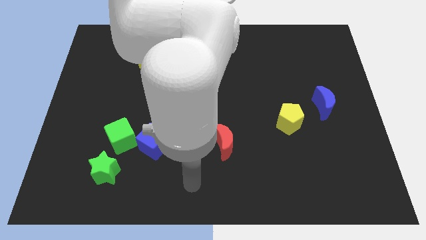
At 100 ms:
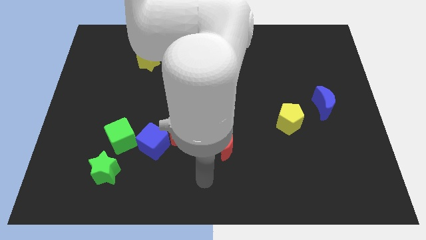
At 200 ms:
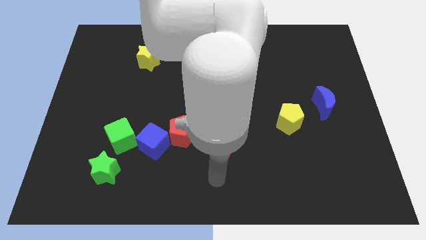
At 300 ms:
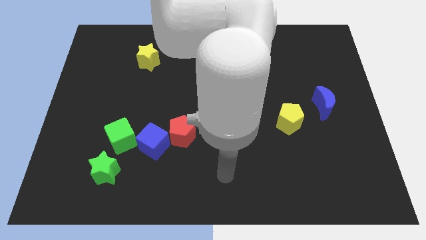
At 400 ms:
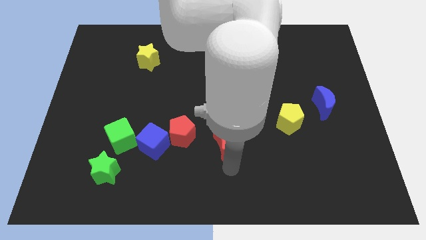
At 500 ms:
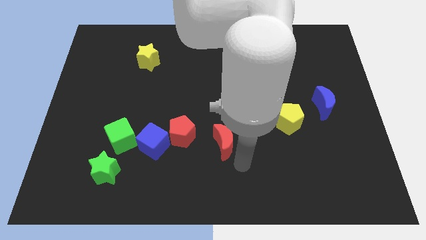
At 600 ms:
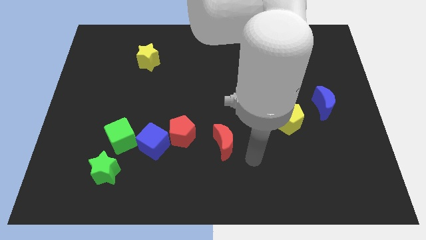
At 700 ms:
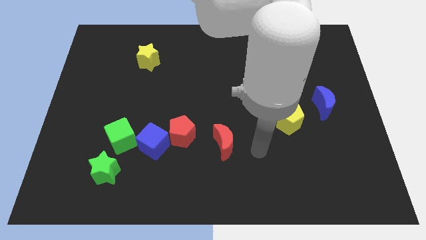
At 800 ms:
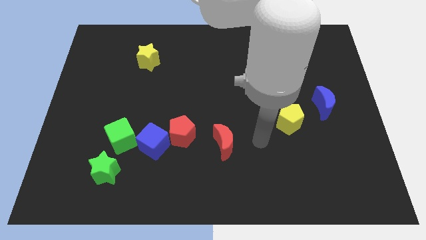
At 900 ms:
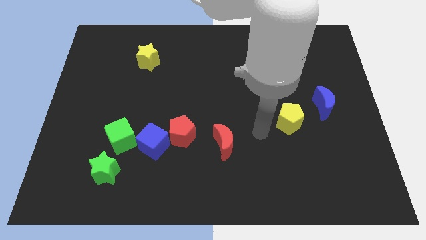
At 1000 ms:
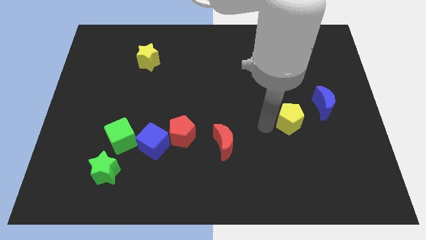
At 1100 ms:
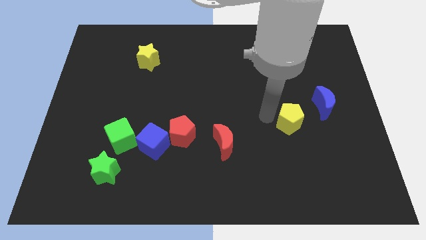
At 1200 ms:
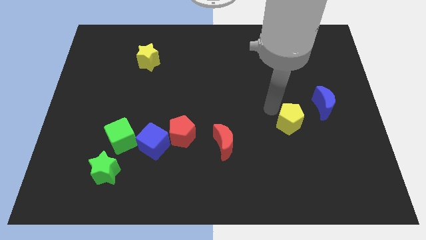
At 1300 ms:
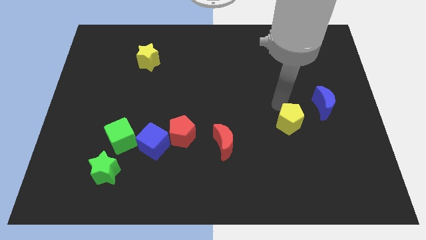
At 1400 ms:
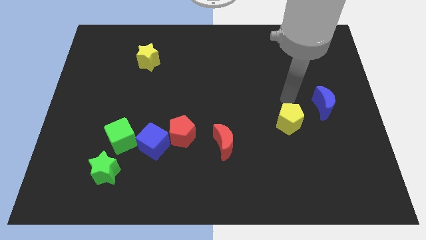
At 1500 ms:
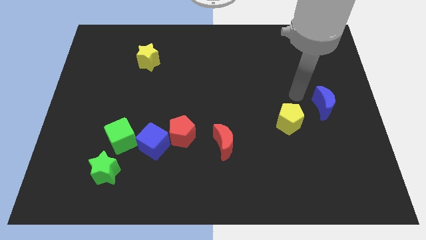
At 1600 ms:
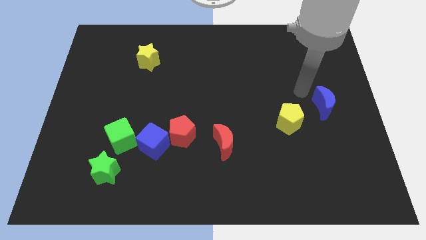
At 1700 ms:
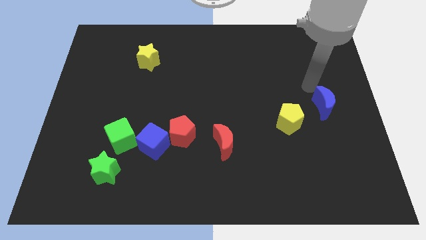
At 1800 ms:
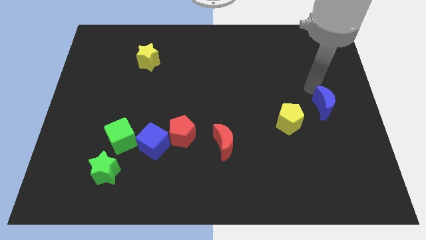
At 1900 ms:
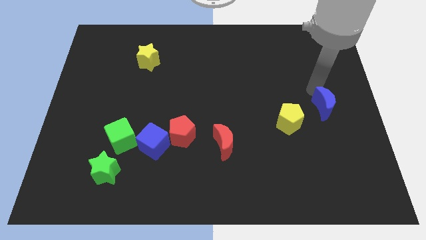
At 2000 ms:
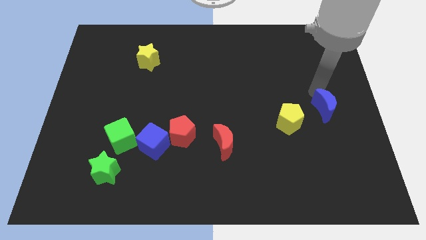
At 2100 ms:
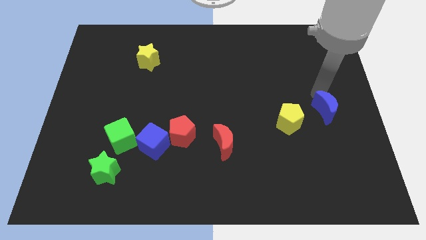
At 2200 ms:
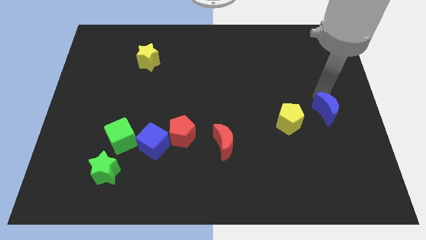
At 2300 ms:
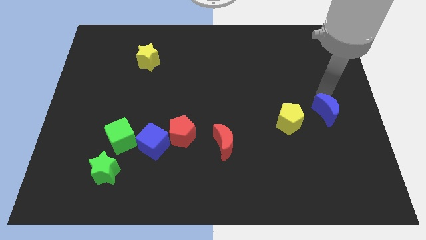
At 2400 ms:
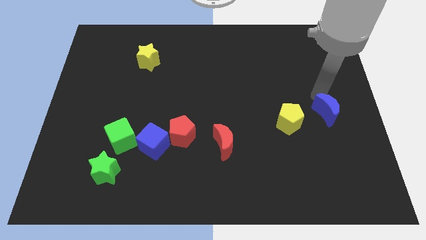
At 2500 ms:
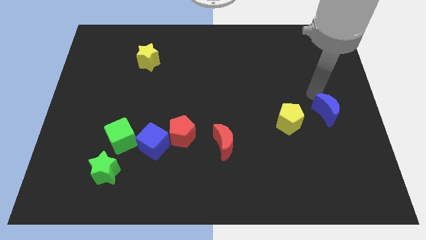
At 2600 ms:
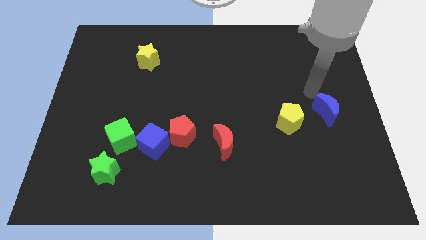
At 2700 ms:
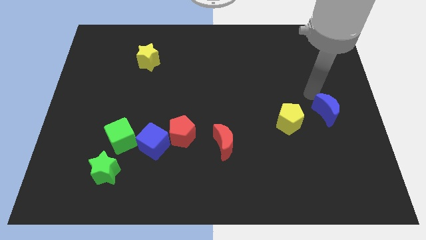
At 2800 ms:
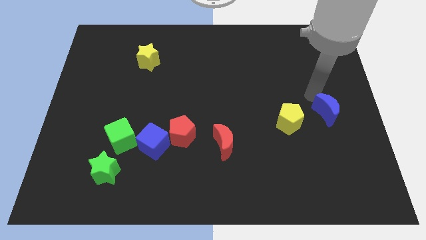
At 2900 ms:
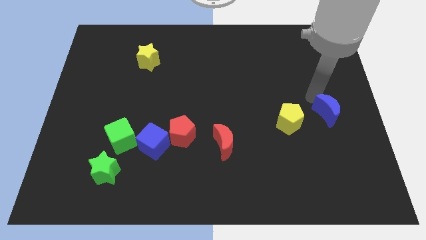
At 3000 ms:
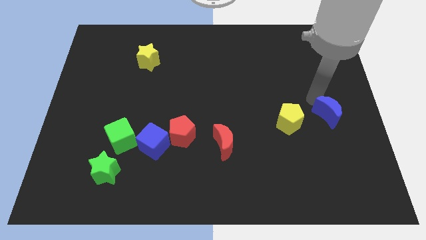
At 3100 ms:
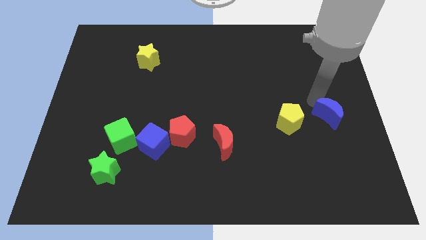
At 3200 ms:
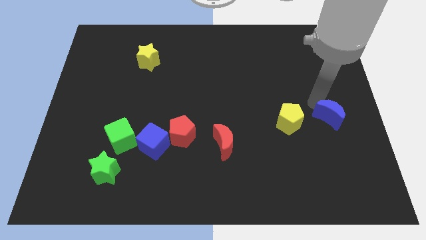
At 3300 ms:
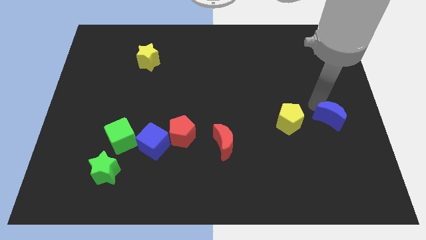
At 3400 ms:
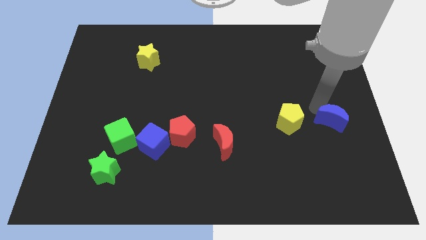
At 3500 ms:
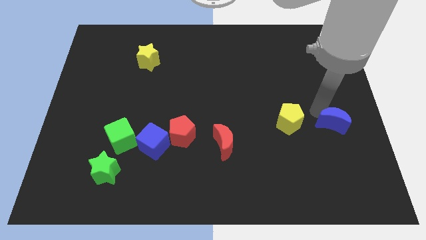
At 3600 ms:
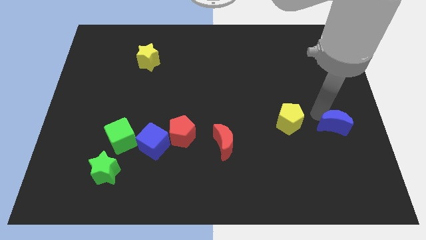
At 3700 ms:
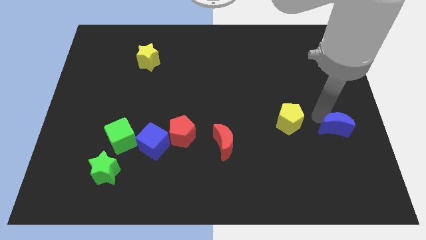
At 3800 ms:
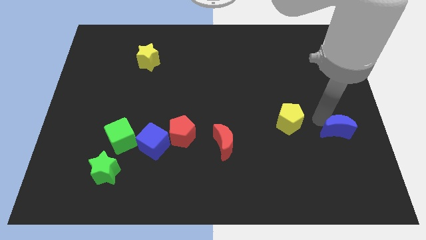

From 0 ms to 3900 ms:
push the blue moon down a little

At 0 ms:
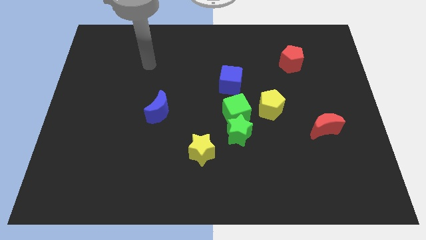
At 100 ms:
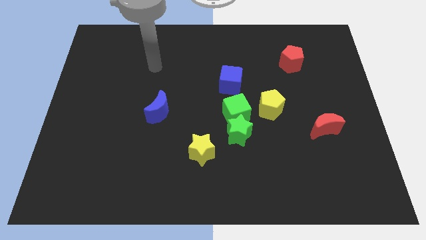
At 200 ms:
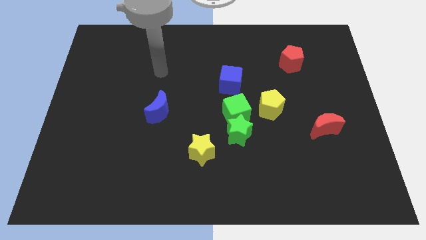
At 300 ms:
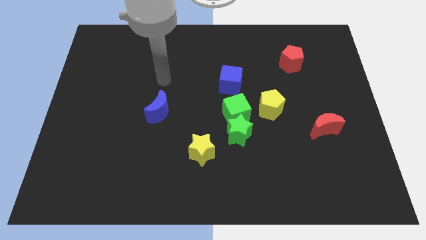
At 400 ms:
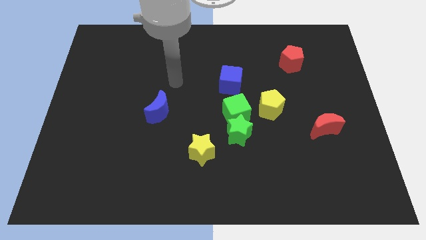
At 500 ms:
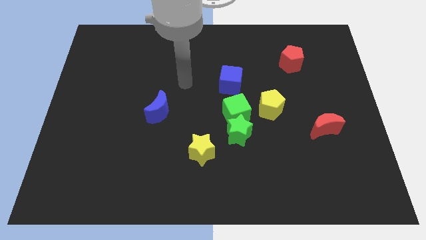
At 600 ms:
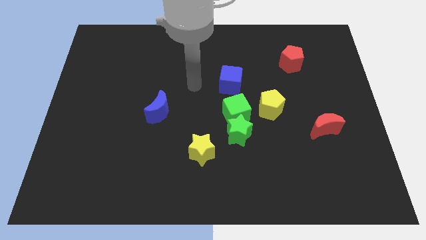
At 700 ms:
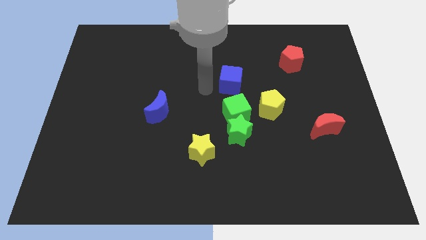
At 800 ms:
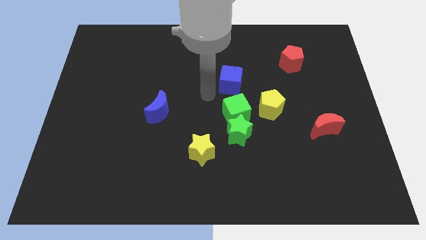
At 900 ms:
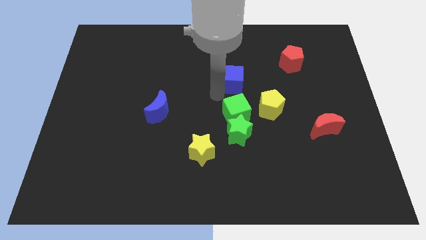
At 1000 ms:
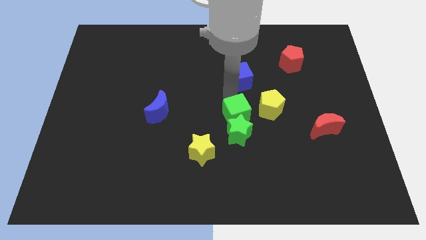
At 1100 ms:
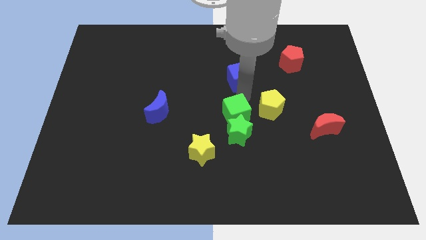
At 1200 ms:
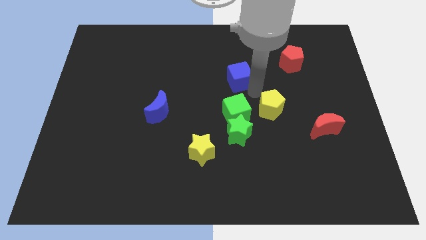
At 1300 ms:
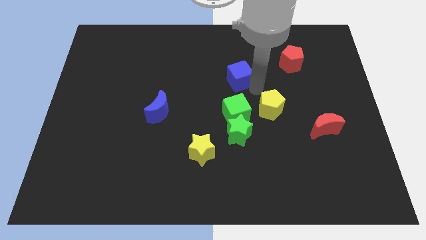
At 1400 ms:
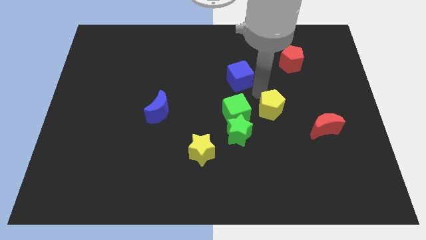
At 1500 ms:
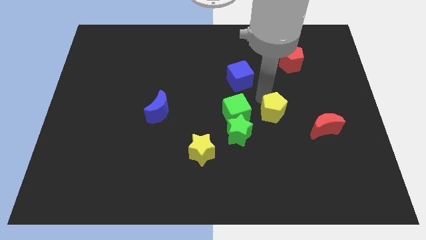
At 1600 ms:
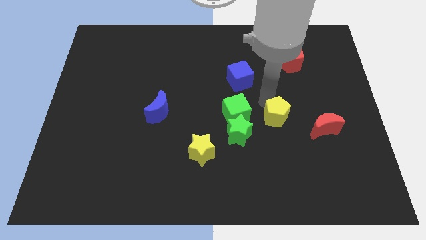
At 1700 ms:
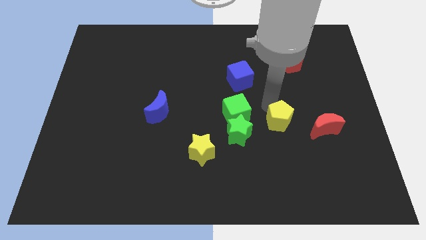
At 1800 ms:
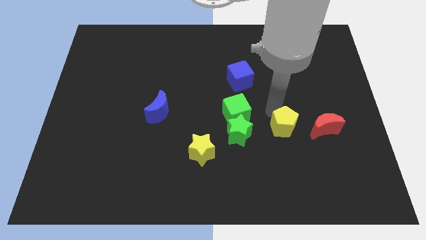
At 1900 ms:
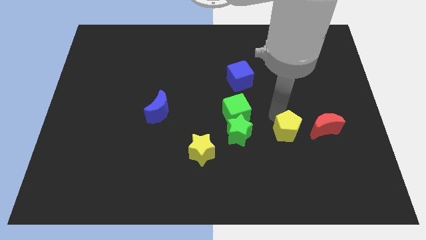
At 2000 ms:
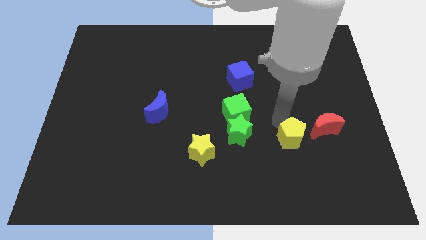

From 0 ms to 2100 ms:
move the yellow pentagon slightly diagonally down and right

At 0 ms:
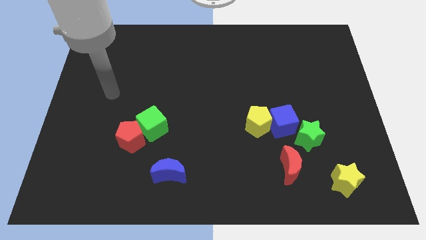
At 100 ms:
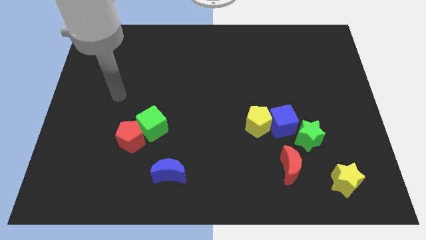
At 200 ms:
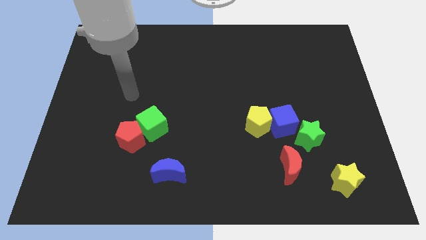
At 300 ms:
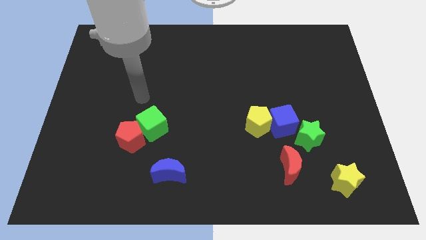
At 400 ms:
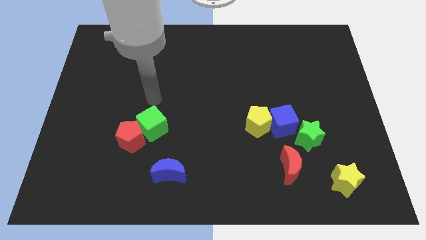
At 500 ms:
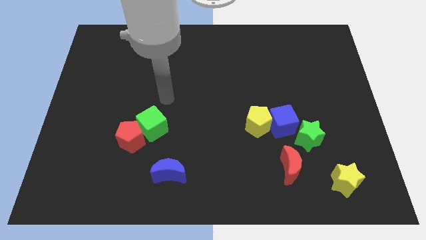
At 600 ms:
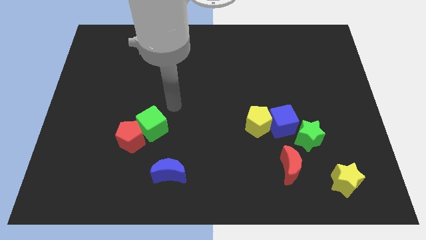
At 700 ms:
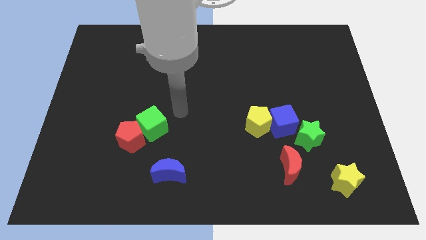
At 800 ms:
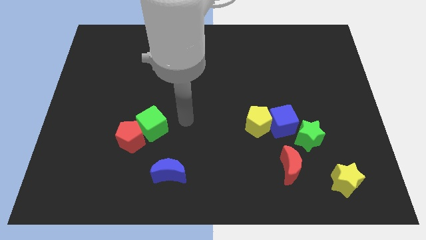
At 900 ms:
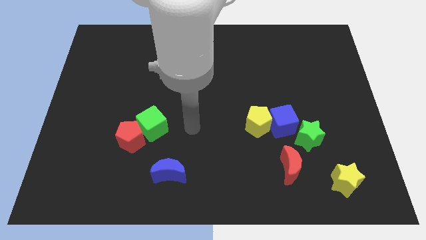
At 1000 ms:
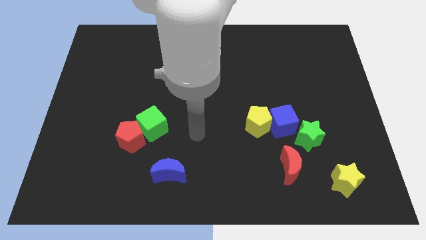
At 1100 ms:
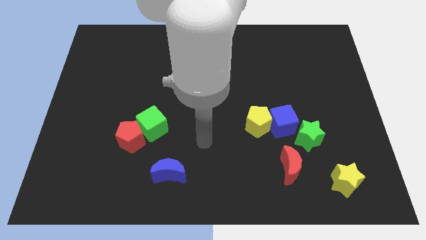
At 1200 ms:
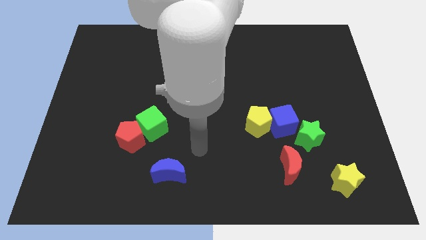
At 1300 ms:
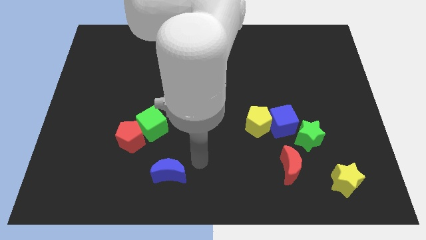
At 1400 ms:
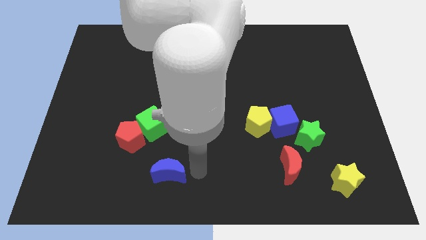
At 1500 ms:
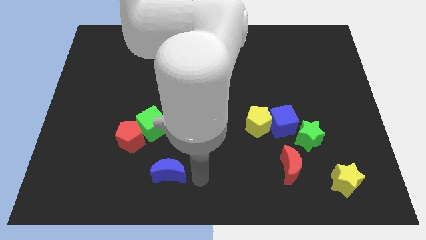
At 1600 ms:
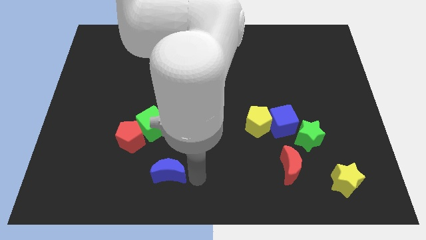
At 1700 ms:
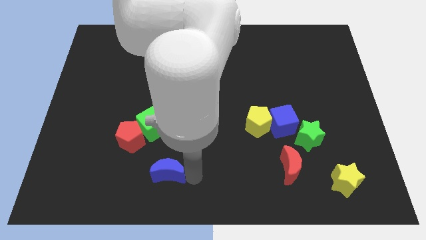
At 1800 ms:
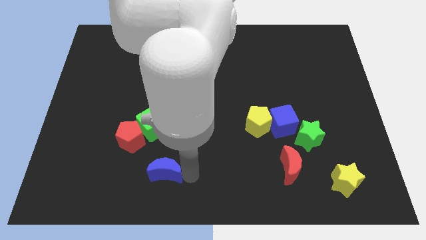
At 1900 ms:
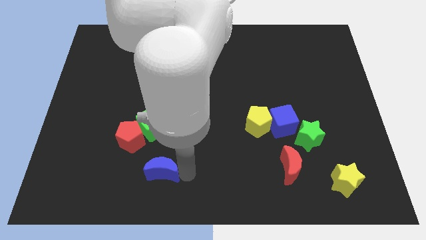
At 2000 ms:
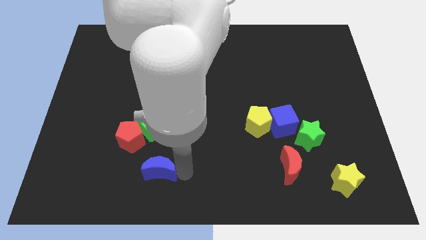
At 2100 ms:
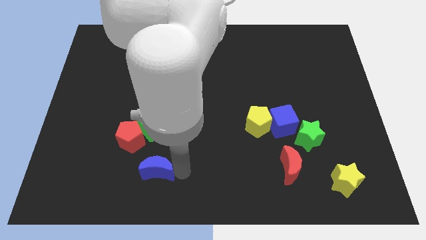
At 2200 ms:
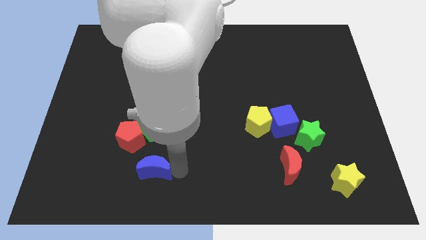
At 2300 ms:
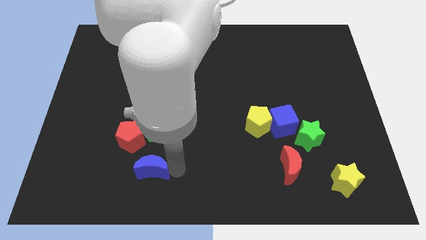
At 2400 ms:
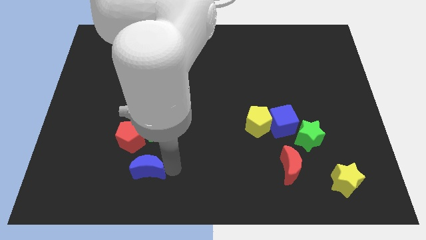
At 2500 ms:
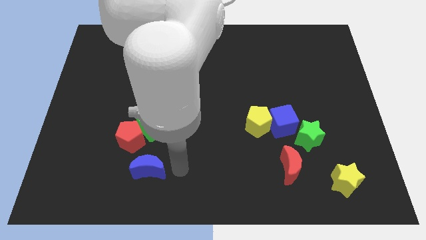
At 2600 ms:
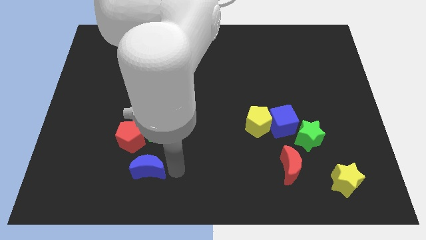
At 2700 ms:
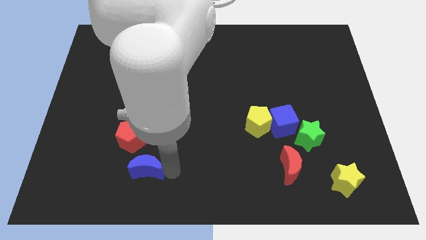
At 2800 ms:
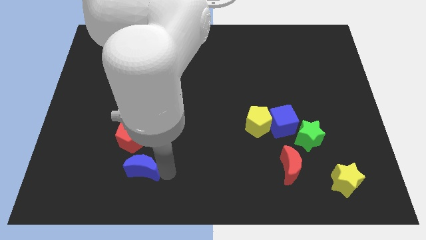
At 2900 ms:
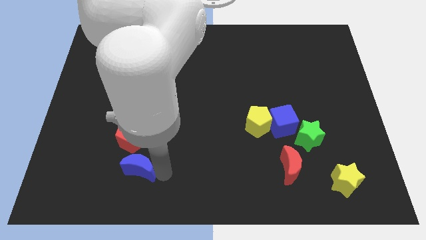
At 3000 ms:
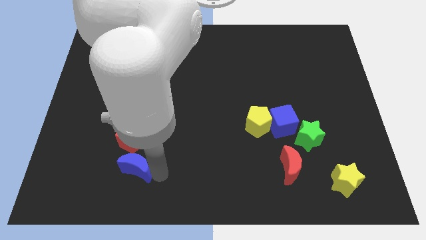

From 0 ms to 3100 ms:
slightly move the blue moon to the left
